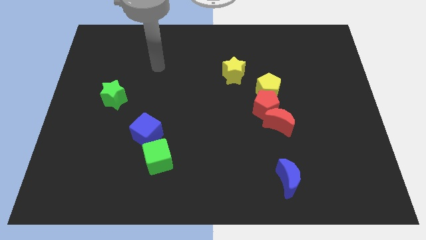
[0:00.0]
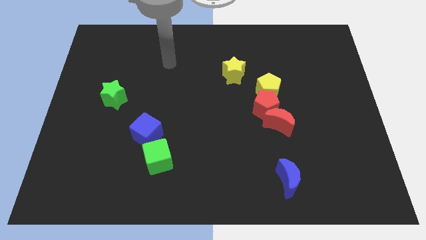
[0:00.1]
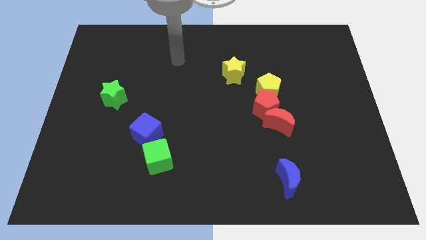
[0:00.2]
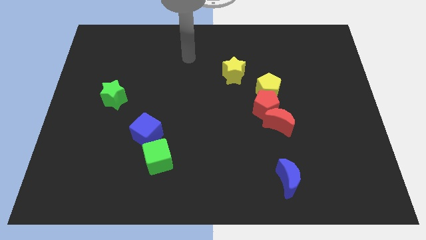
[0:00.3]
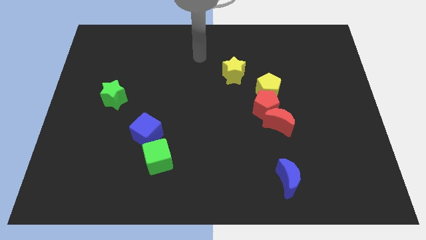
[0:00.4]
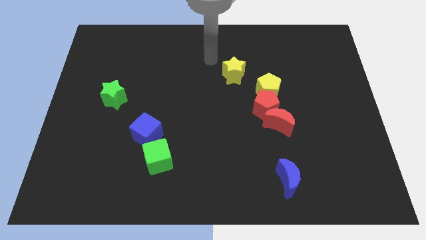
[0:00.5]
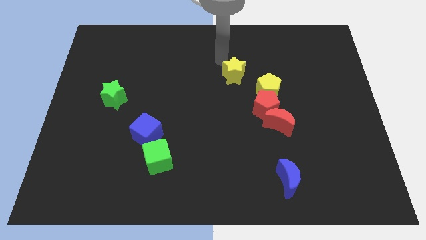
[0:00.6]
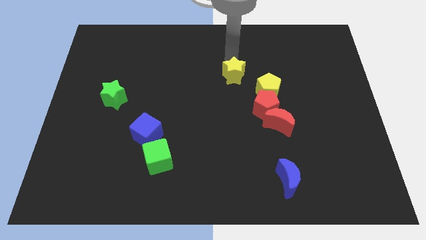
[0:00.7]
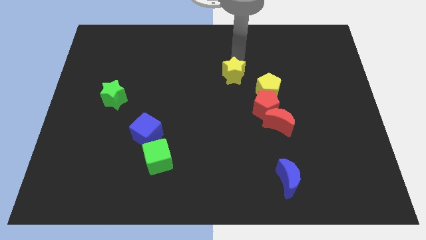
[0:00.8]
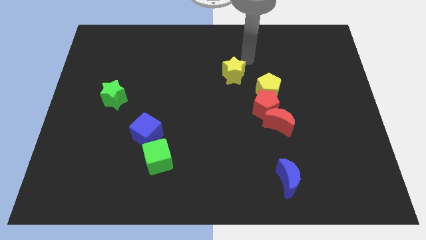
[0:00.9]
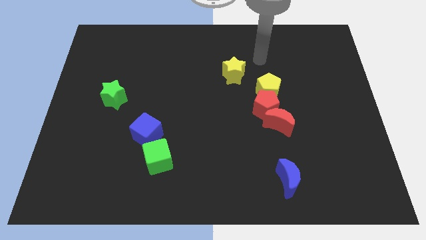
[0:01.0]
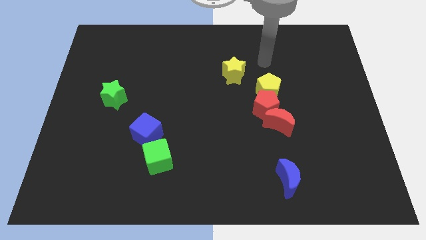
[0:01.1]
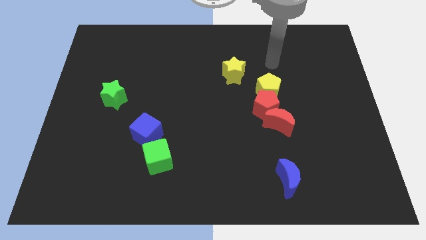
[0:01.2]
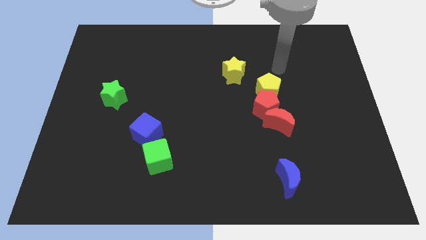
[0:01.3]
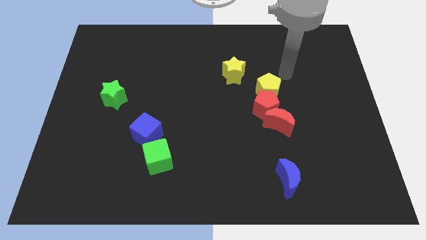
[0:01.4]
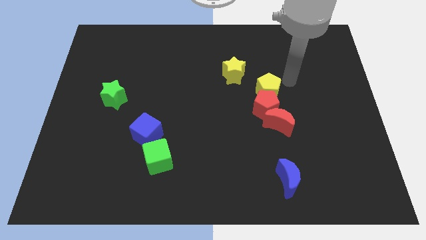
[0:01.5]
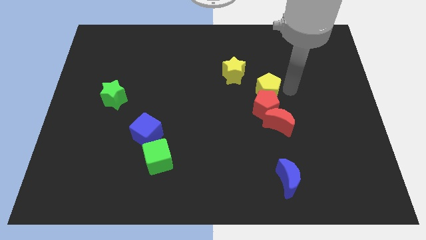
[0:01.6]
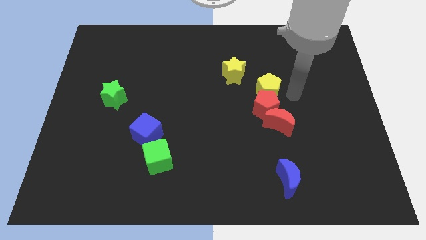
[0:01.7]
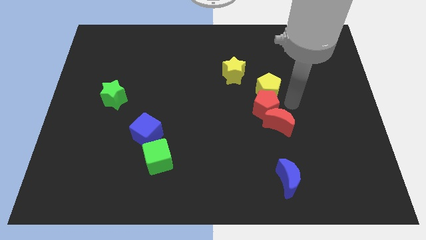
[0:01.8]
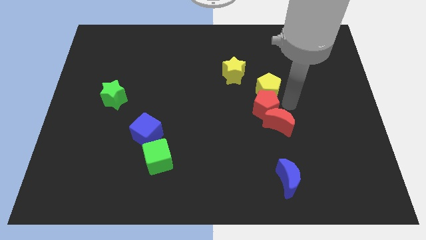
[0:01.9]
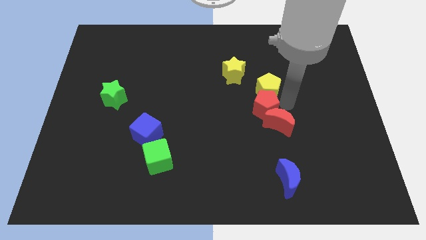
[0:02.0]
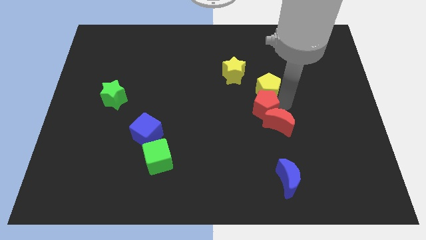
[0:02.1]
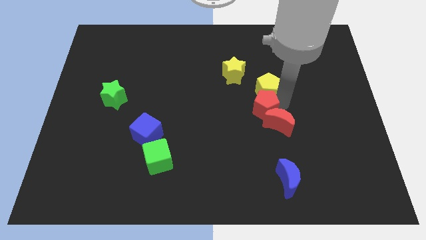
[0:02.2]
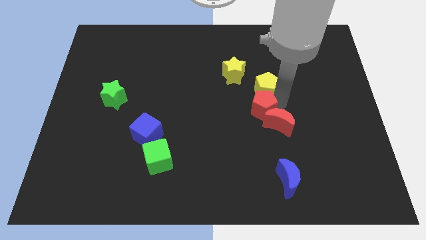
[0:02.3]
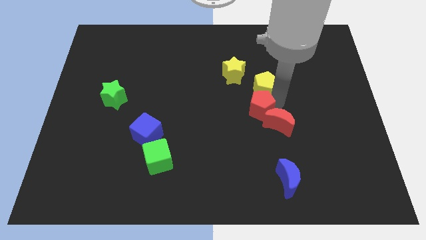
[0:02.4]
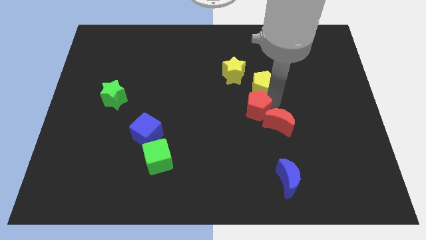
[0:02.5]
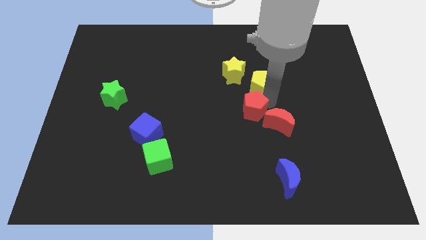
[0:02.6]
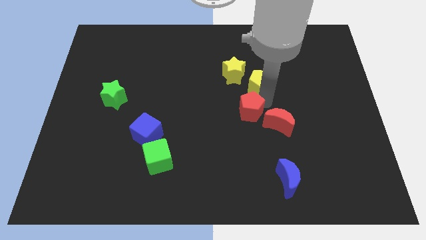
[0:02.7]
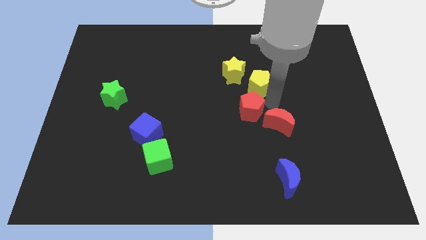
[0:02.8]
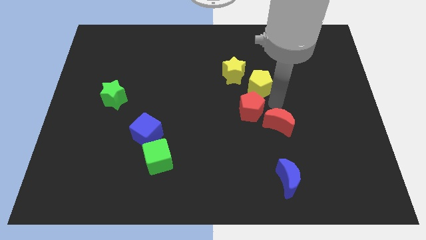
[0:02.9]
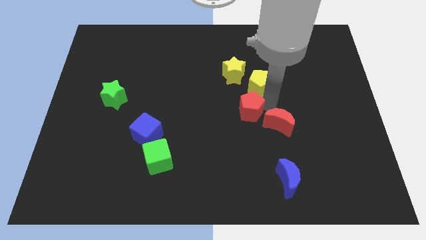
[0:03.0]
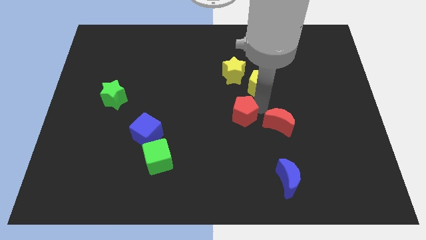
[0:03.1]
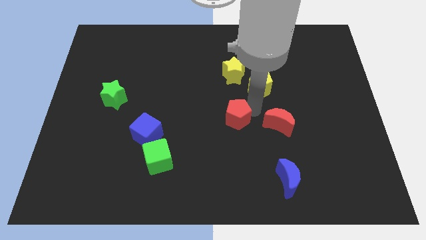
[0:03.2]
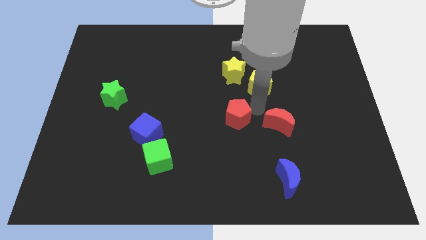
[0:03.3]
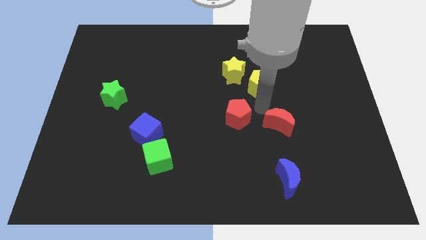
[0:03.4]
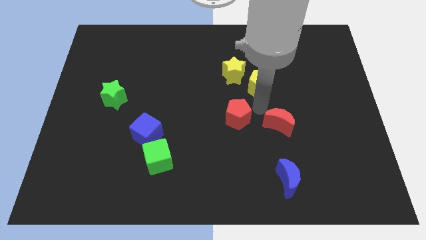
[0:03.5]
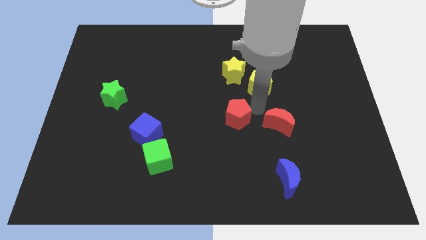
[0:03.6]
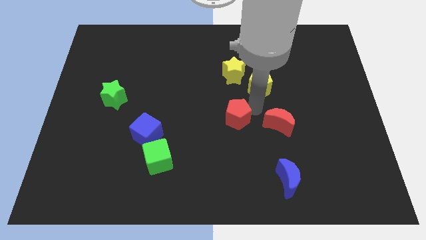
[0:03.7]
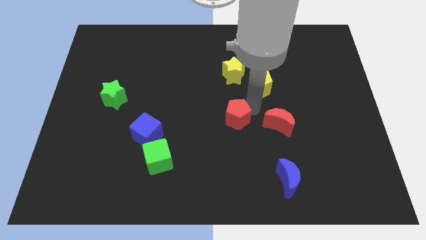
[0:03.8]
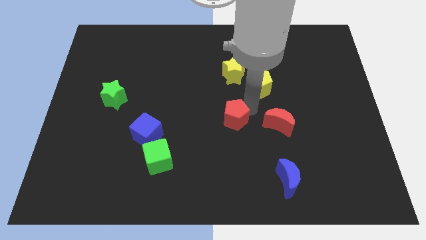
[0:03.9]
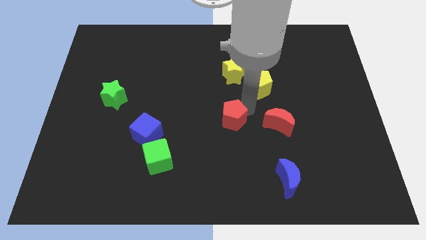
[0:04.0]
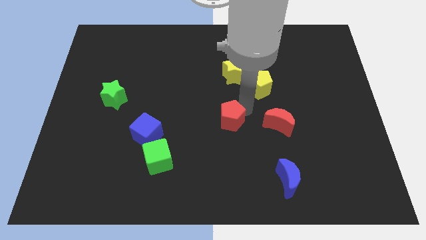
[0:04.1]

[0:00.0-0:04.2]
pull the red pentagon apart from the yellow pentagon and red moon

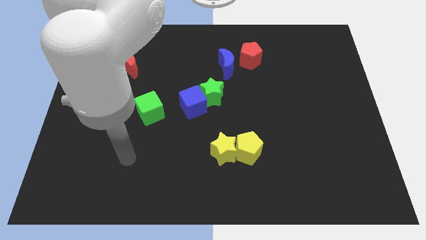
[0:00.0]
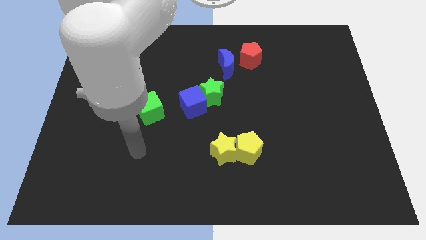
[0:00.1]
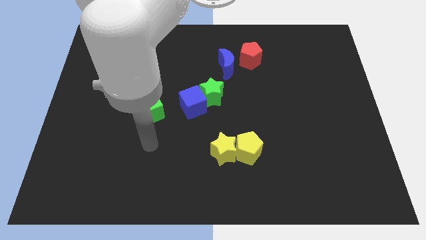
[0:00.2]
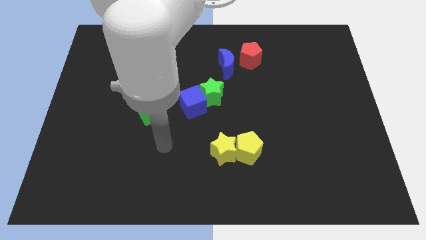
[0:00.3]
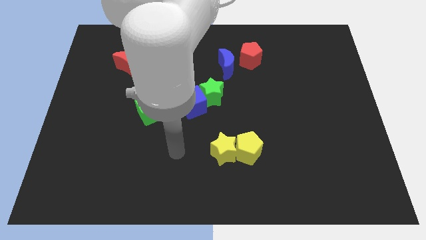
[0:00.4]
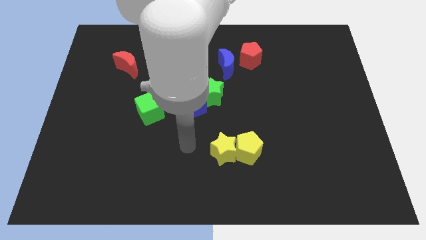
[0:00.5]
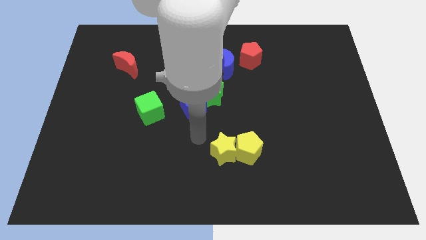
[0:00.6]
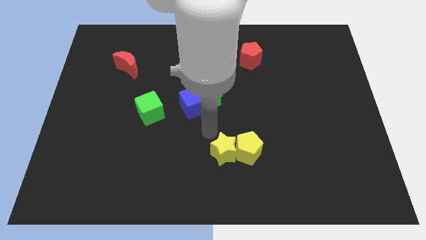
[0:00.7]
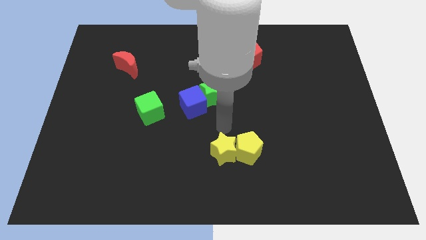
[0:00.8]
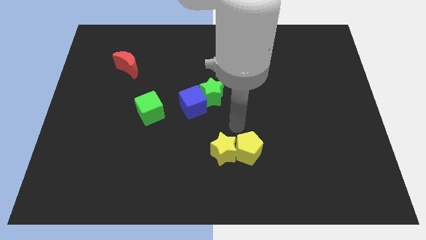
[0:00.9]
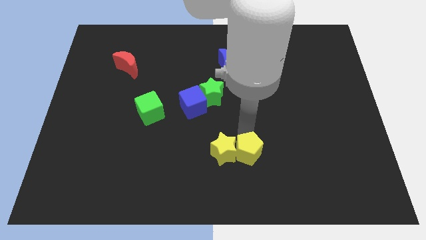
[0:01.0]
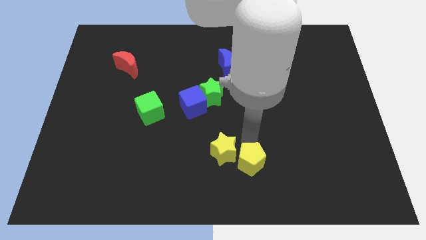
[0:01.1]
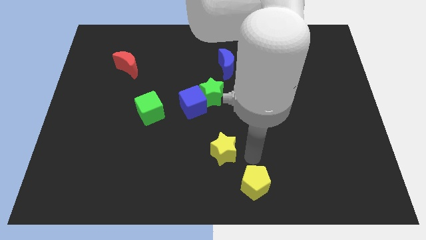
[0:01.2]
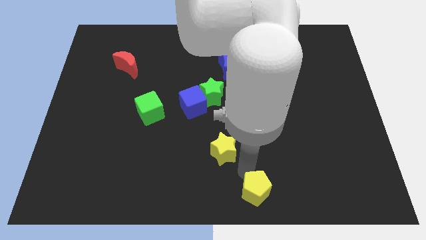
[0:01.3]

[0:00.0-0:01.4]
pull the yellow star apart from the yellow pentagon

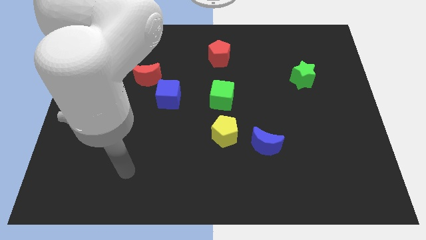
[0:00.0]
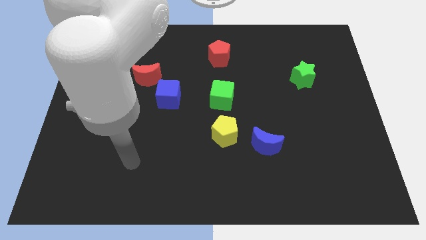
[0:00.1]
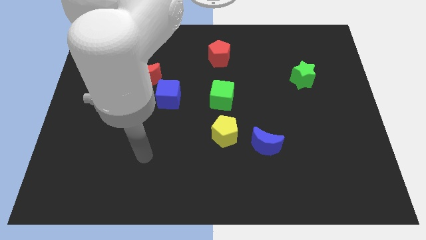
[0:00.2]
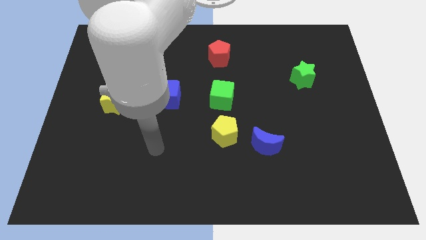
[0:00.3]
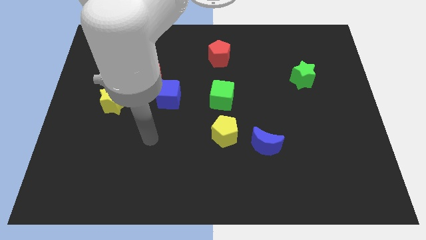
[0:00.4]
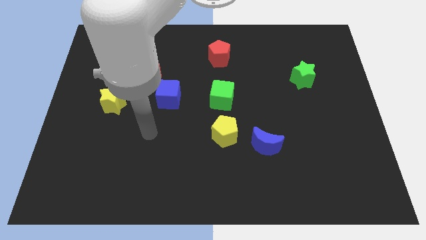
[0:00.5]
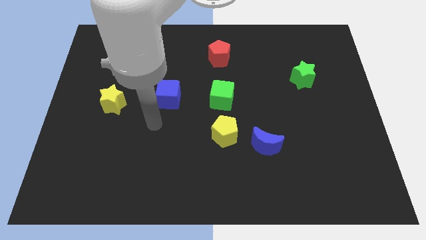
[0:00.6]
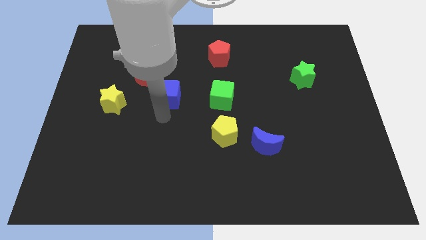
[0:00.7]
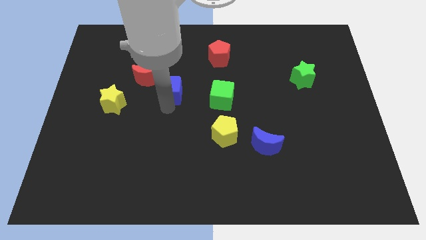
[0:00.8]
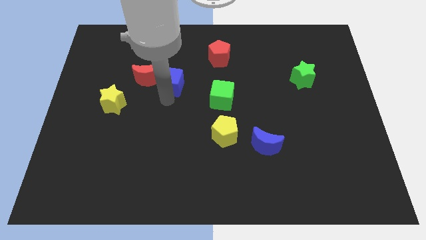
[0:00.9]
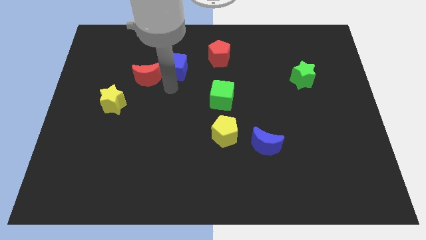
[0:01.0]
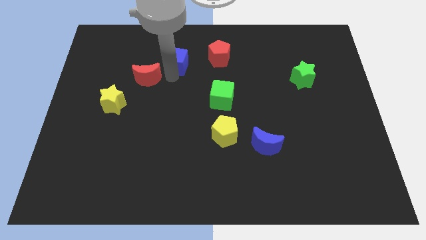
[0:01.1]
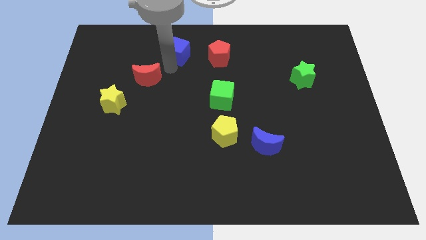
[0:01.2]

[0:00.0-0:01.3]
separate the red moon from the blue cube

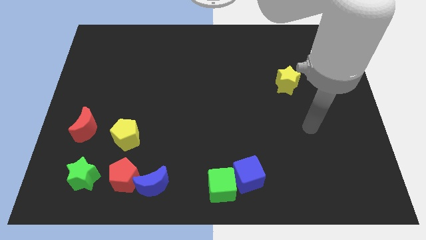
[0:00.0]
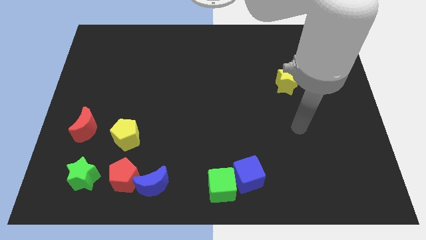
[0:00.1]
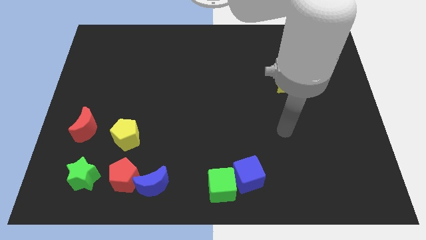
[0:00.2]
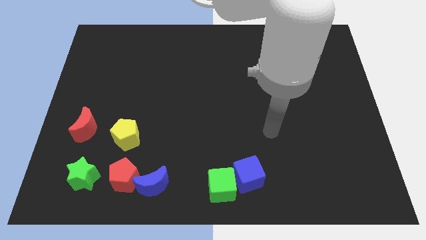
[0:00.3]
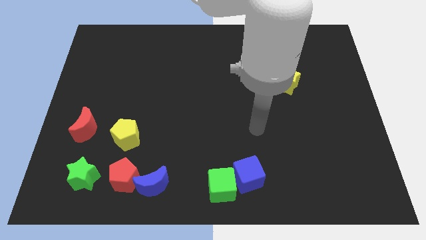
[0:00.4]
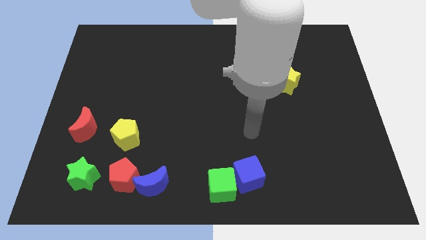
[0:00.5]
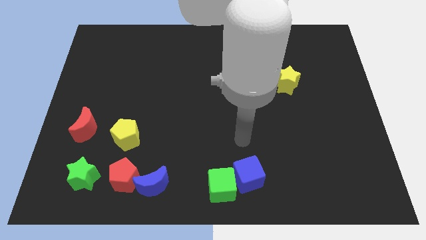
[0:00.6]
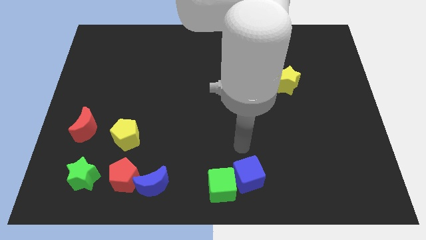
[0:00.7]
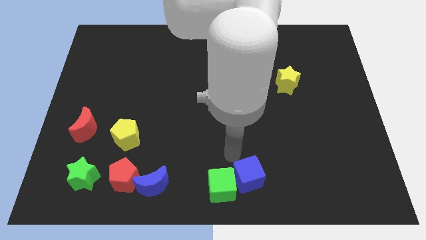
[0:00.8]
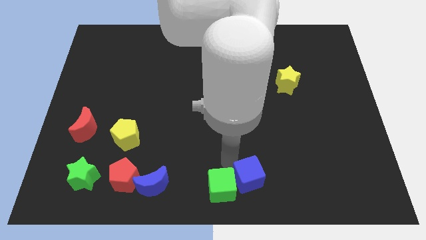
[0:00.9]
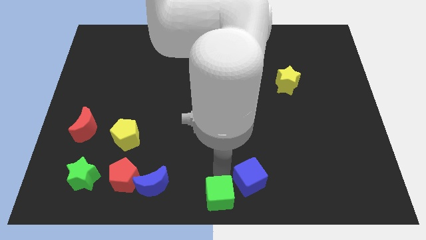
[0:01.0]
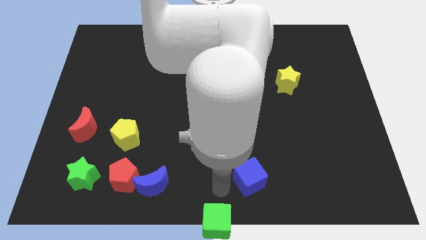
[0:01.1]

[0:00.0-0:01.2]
pull the blue cube apart from the green cube

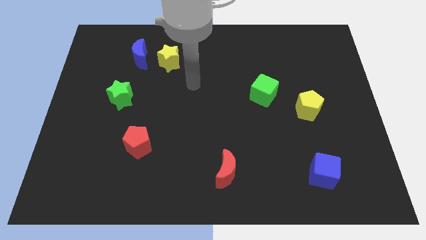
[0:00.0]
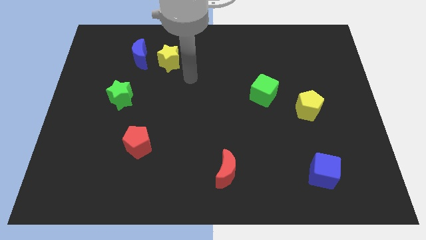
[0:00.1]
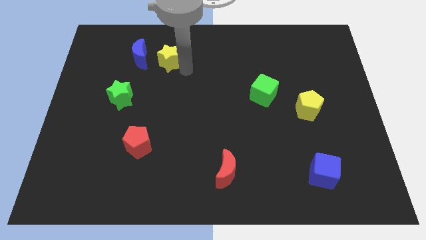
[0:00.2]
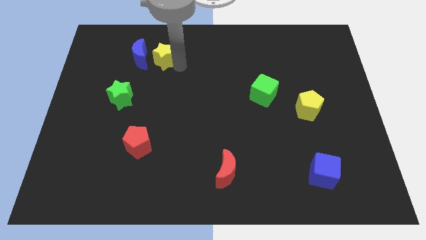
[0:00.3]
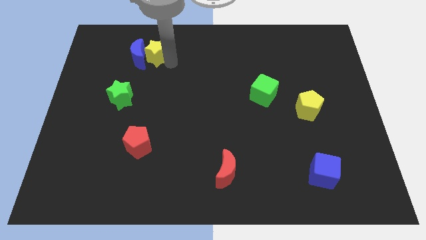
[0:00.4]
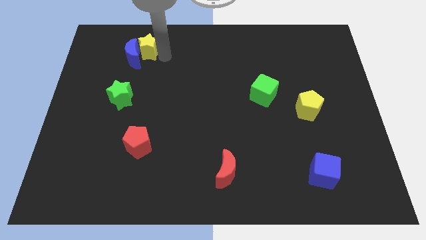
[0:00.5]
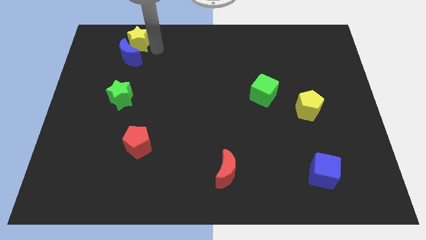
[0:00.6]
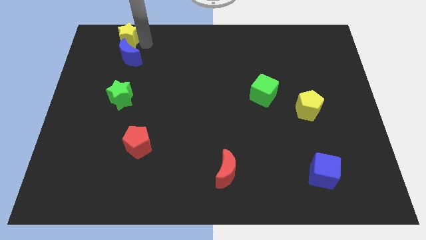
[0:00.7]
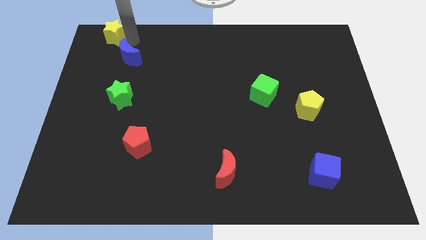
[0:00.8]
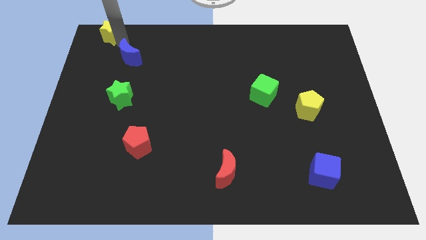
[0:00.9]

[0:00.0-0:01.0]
pull the blue moon apart from the yellow star

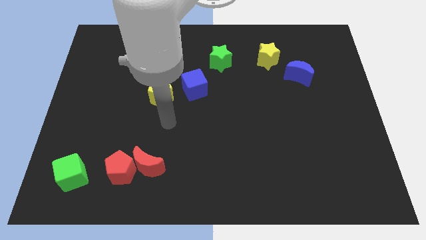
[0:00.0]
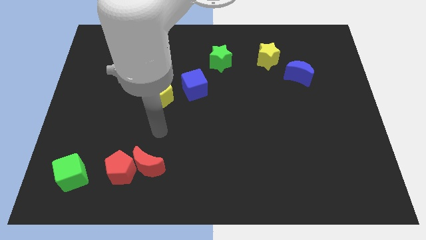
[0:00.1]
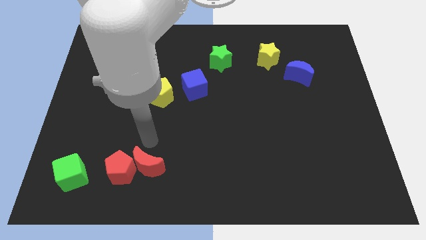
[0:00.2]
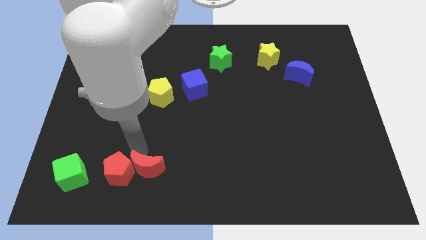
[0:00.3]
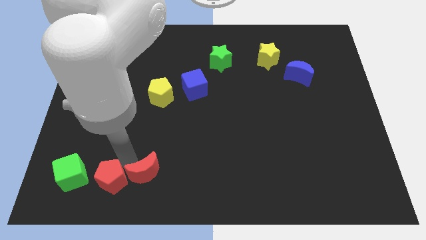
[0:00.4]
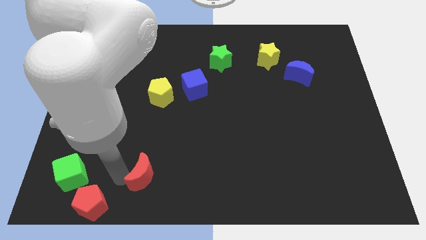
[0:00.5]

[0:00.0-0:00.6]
move the red moon away from the red pentagon
